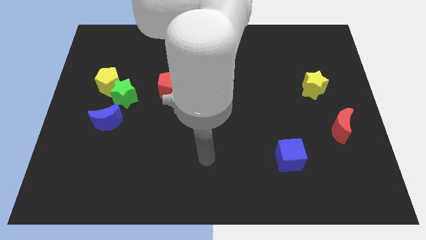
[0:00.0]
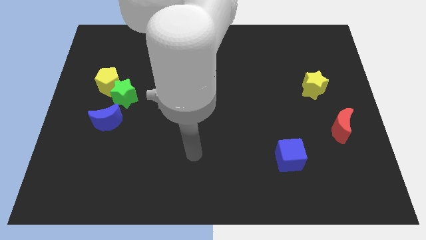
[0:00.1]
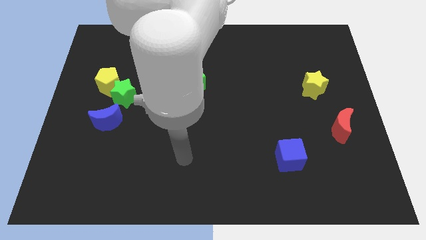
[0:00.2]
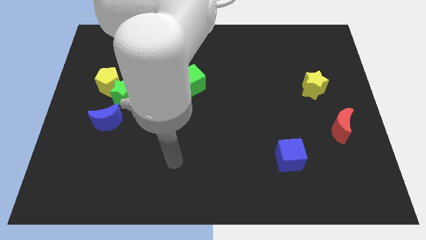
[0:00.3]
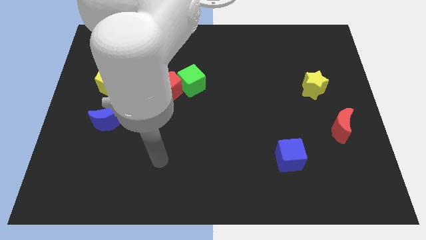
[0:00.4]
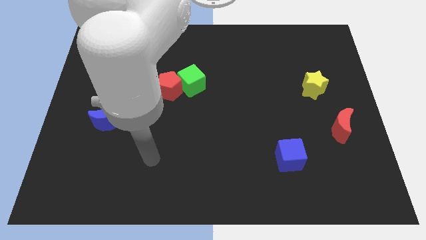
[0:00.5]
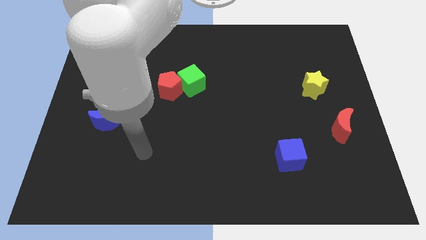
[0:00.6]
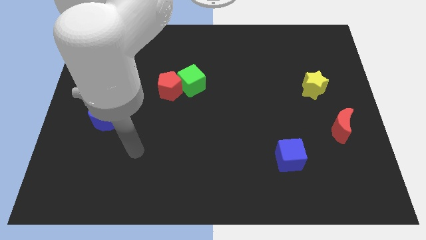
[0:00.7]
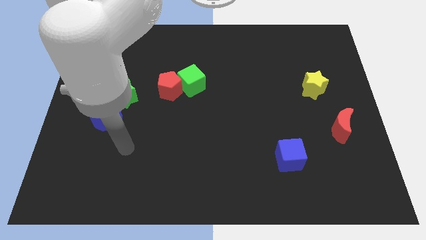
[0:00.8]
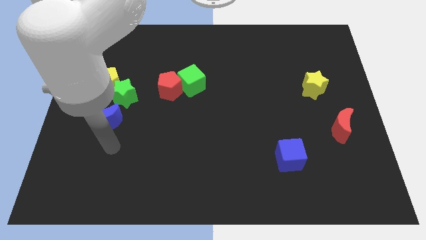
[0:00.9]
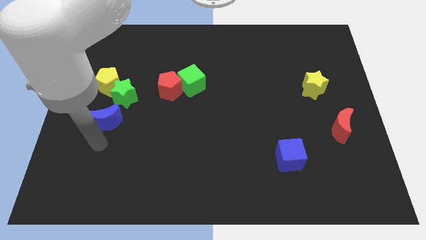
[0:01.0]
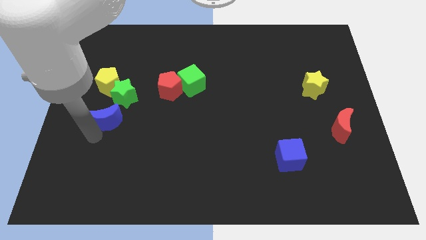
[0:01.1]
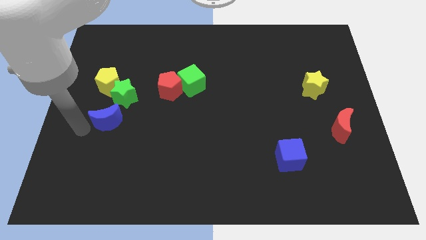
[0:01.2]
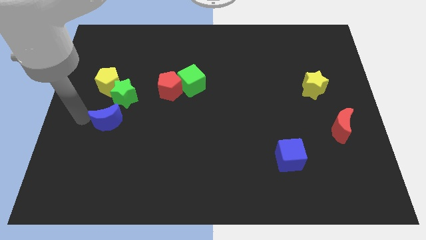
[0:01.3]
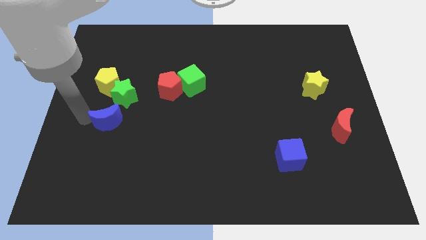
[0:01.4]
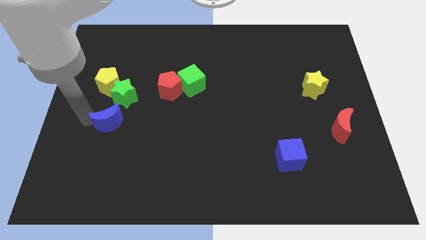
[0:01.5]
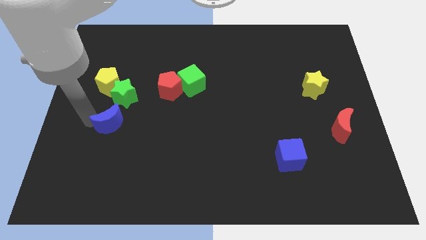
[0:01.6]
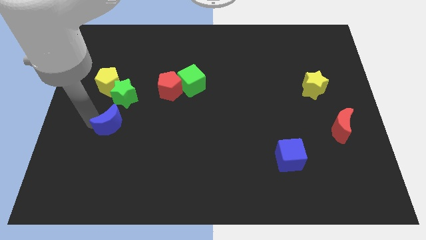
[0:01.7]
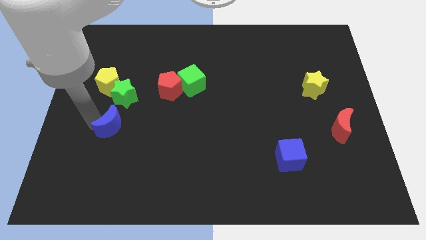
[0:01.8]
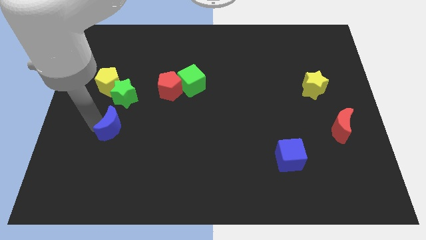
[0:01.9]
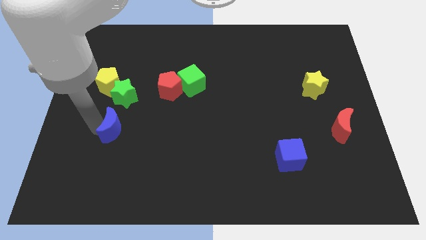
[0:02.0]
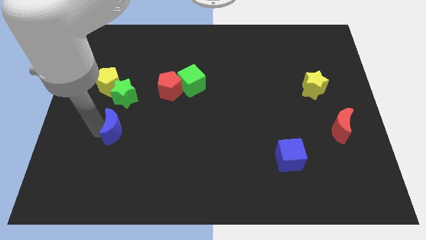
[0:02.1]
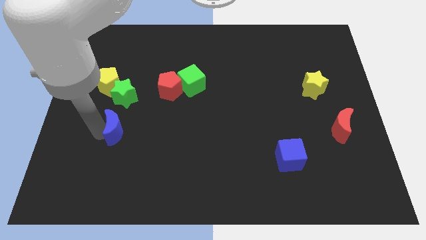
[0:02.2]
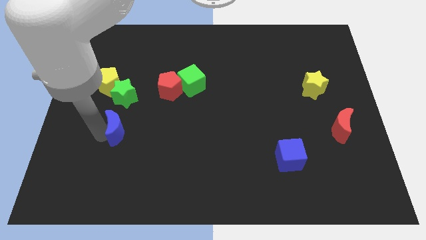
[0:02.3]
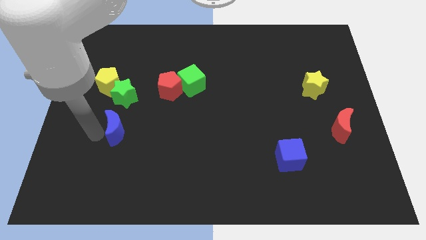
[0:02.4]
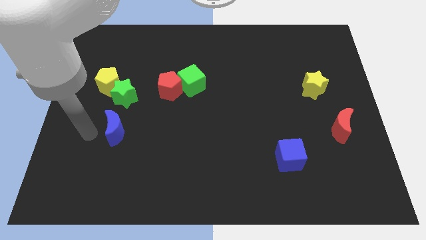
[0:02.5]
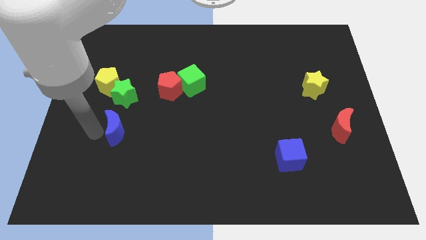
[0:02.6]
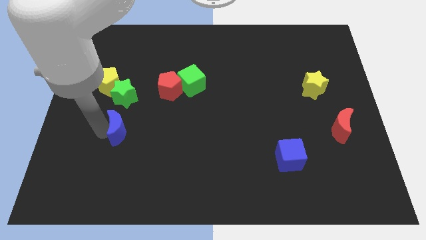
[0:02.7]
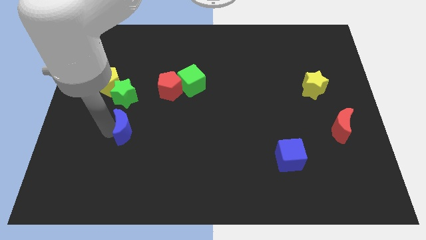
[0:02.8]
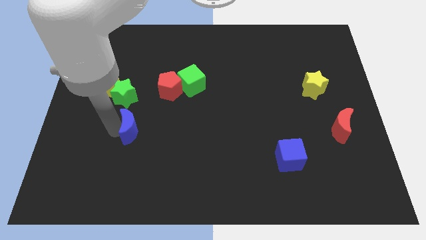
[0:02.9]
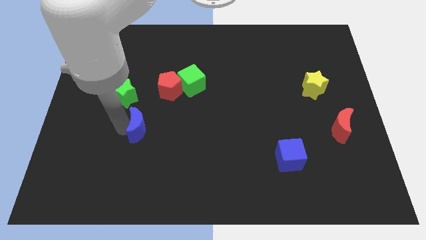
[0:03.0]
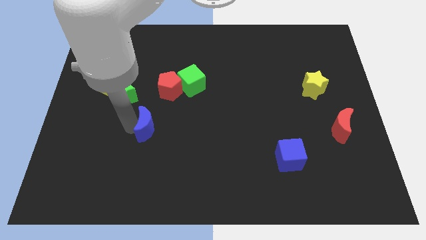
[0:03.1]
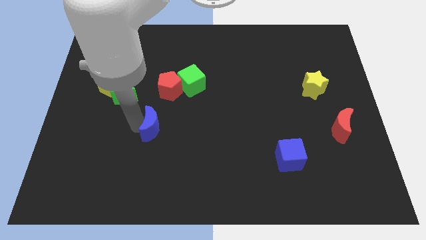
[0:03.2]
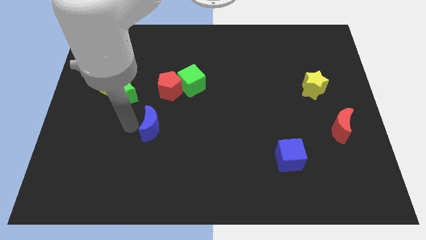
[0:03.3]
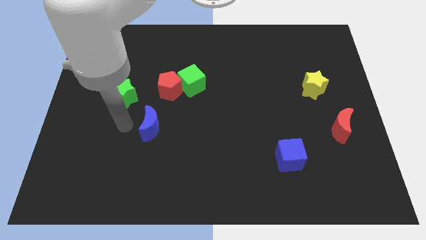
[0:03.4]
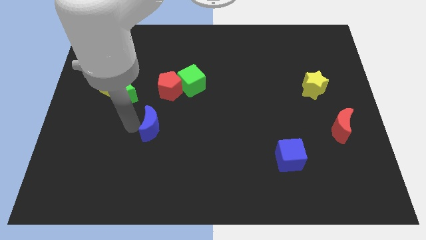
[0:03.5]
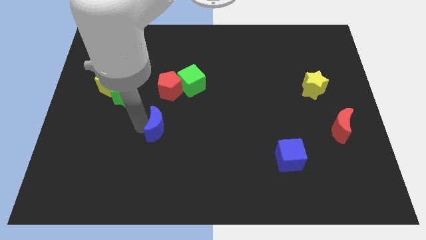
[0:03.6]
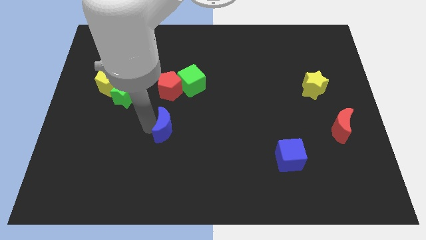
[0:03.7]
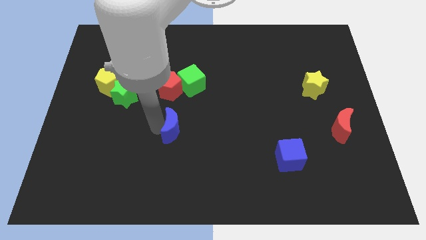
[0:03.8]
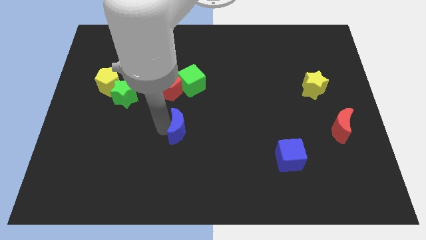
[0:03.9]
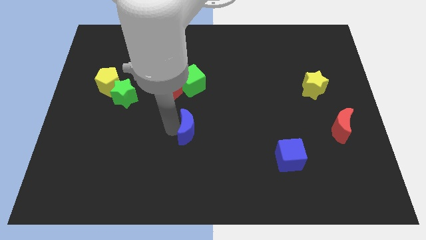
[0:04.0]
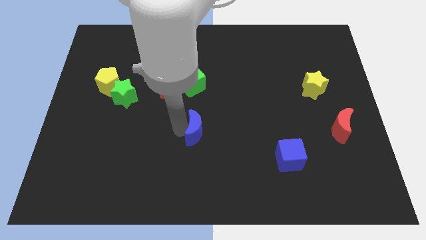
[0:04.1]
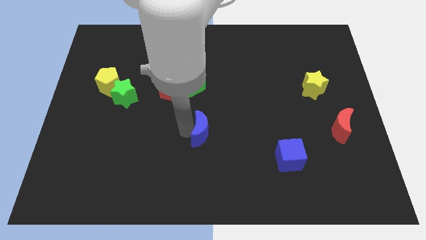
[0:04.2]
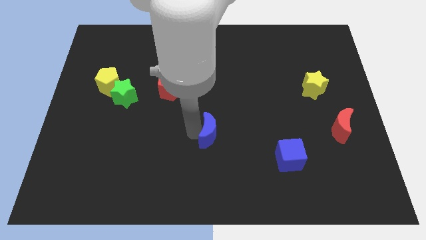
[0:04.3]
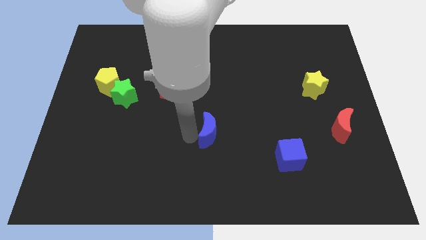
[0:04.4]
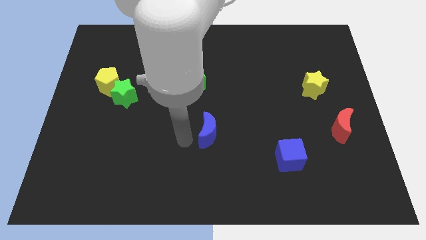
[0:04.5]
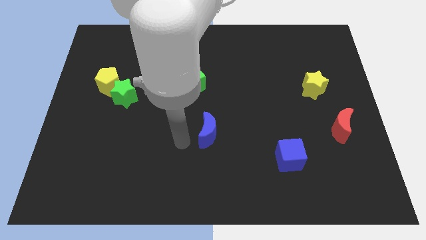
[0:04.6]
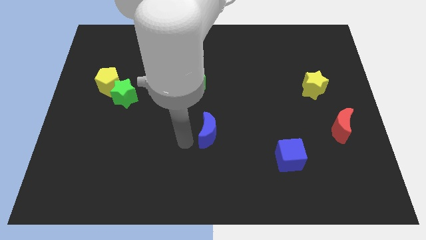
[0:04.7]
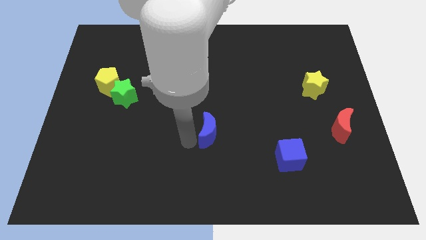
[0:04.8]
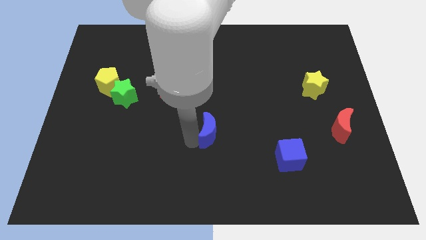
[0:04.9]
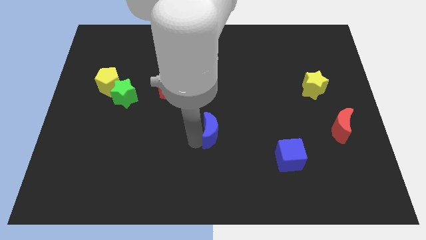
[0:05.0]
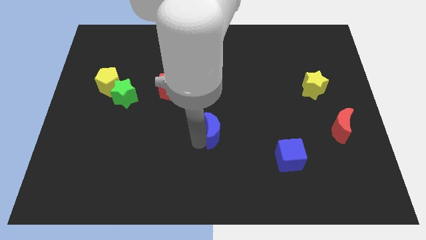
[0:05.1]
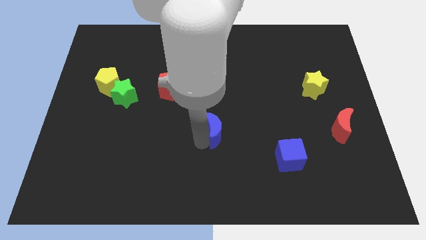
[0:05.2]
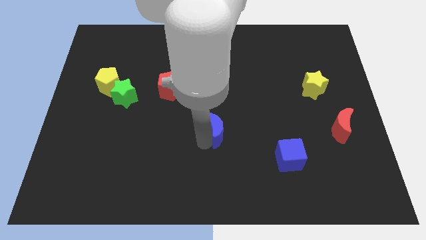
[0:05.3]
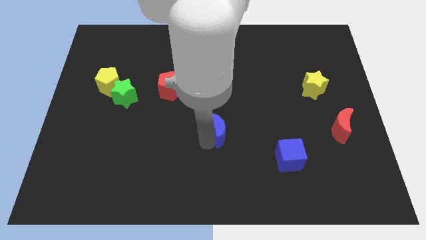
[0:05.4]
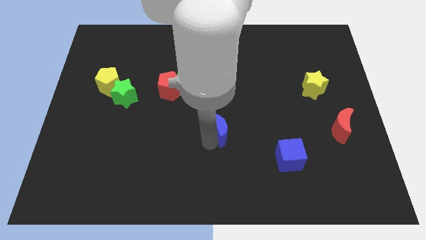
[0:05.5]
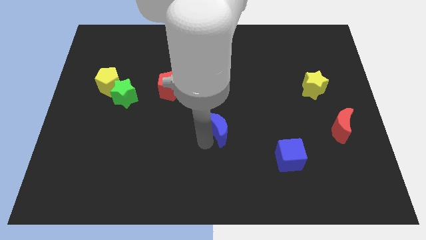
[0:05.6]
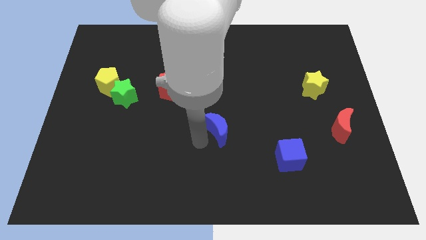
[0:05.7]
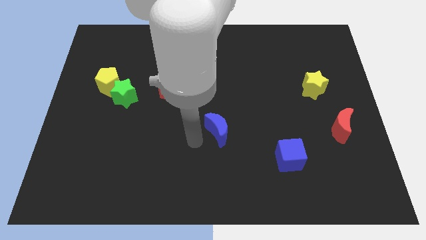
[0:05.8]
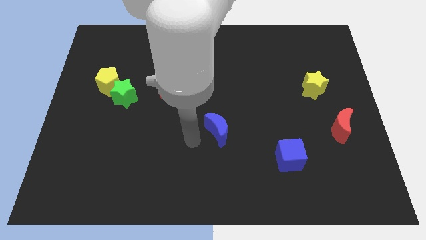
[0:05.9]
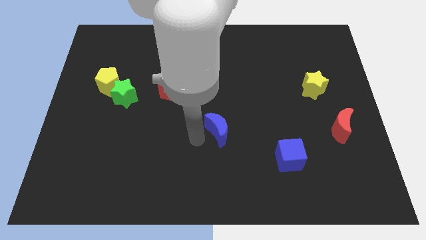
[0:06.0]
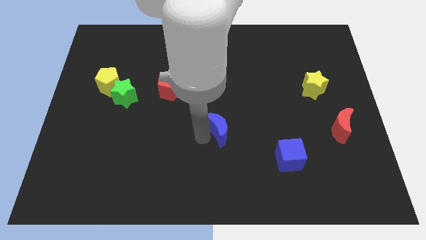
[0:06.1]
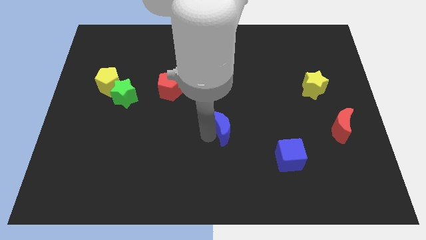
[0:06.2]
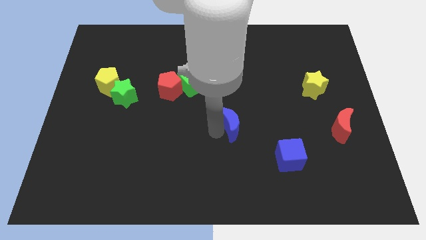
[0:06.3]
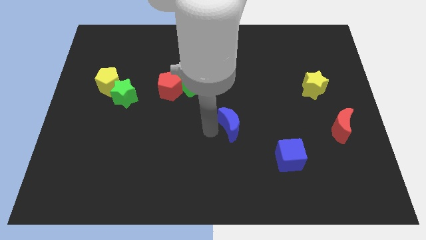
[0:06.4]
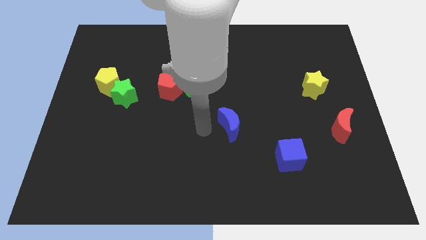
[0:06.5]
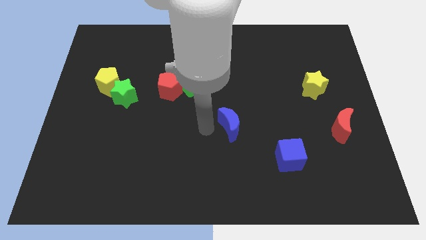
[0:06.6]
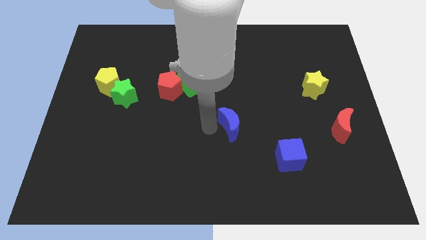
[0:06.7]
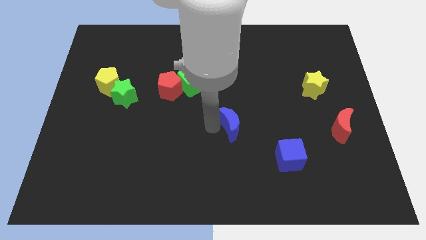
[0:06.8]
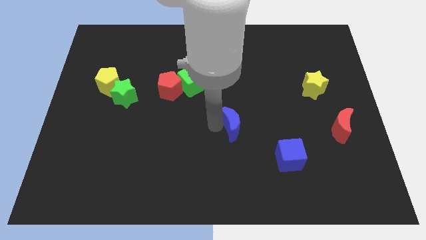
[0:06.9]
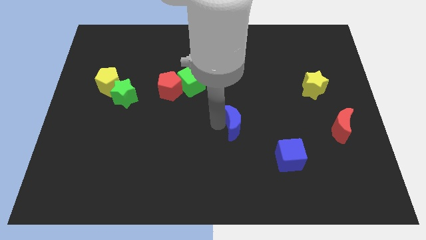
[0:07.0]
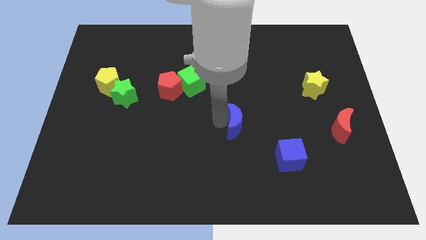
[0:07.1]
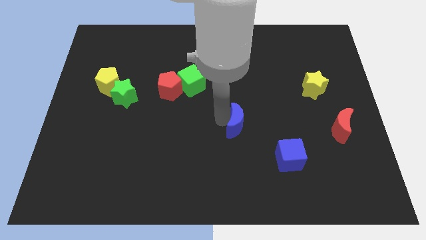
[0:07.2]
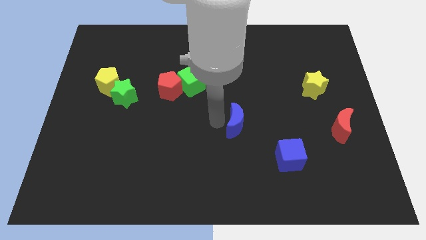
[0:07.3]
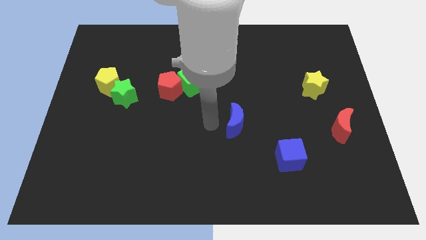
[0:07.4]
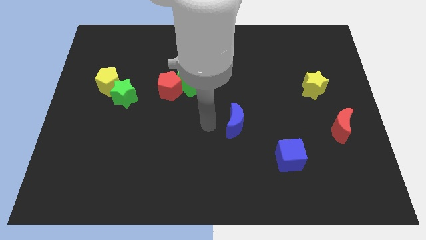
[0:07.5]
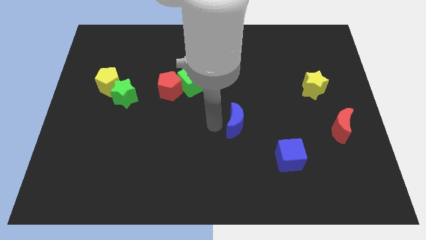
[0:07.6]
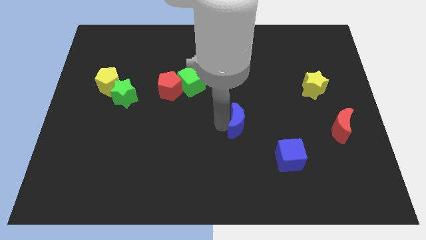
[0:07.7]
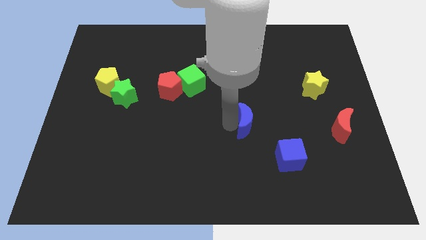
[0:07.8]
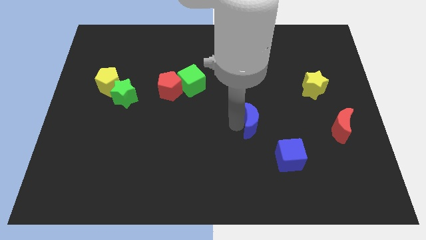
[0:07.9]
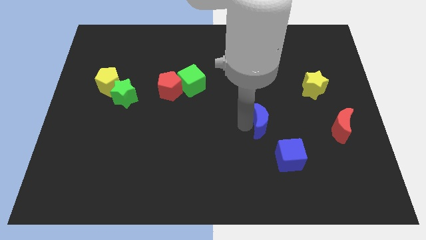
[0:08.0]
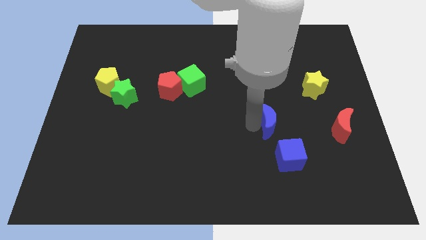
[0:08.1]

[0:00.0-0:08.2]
slide the blue moon to the top side of the blue cube
